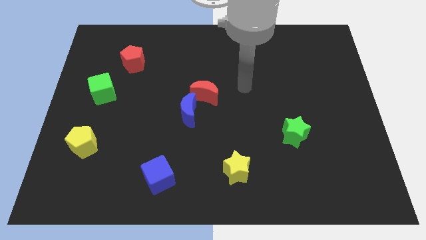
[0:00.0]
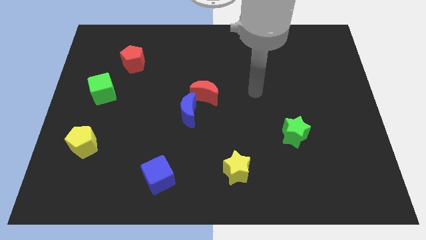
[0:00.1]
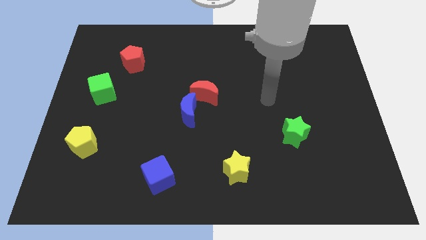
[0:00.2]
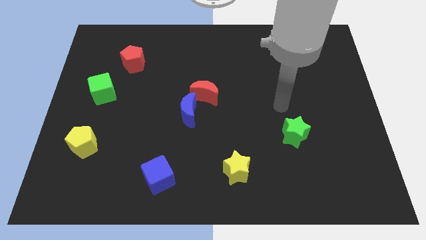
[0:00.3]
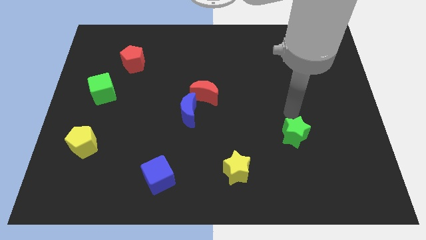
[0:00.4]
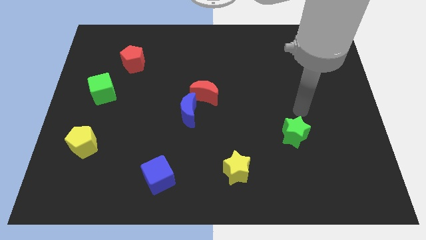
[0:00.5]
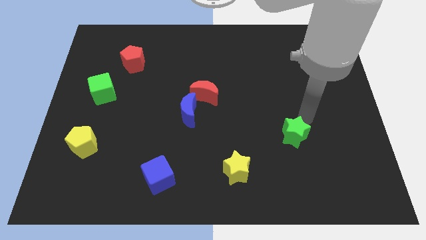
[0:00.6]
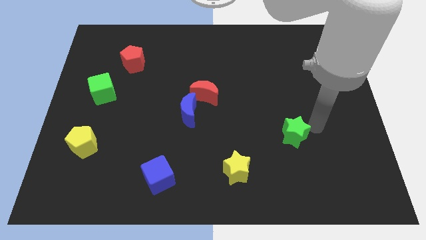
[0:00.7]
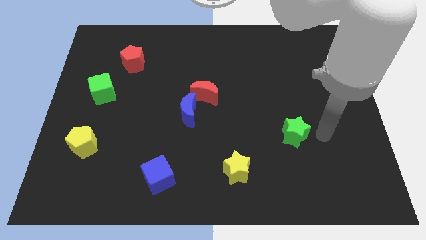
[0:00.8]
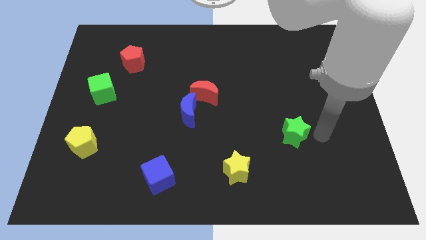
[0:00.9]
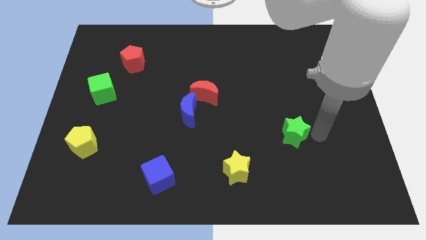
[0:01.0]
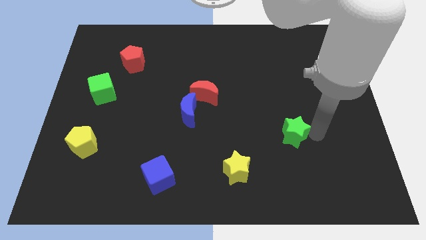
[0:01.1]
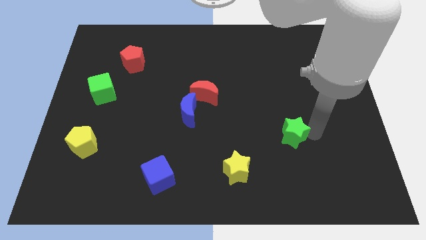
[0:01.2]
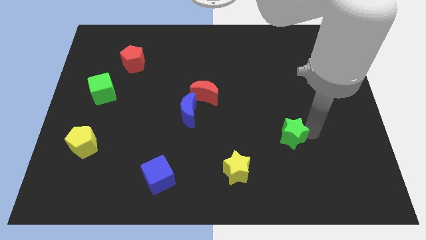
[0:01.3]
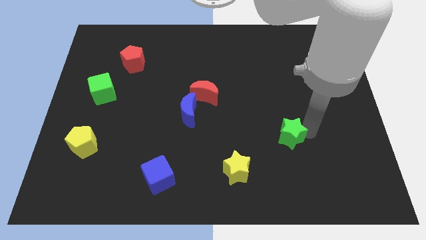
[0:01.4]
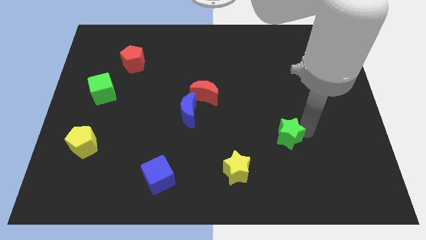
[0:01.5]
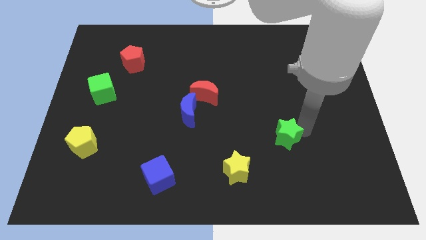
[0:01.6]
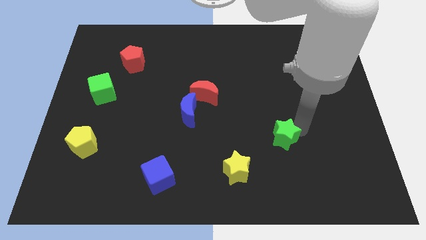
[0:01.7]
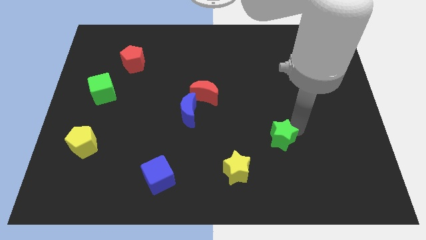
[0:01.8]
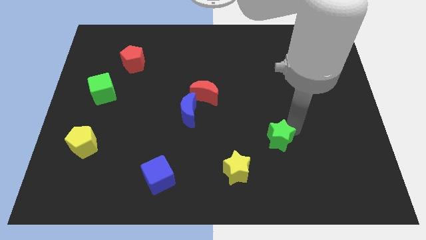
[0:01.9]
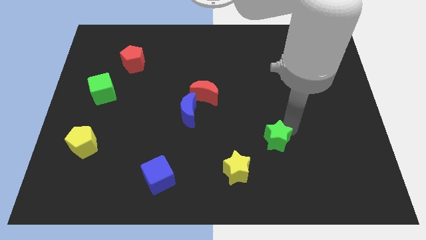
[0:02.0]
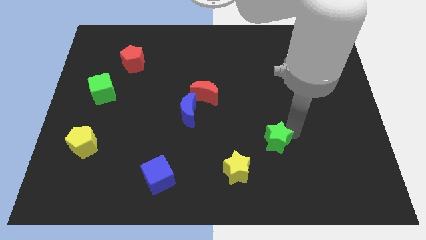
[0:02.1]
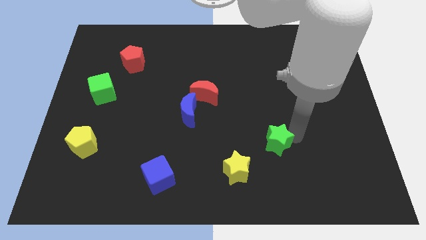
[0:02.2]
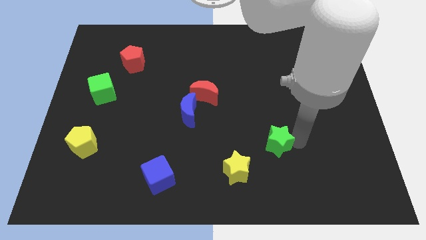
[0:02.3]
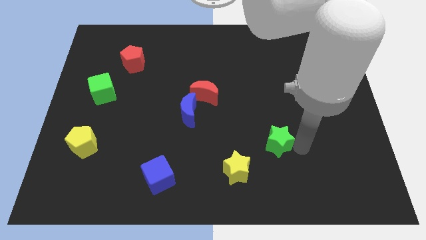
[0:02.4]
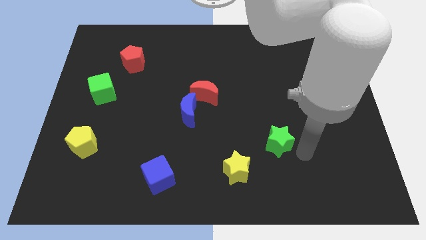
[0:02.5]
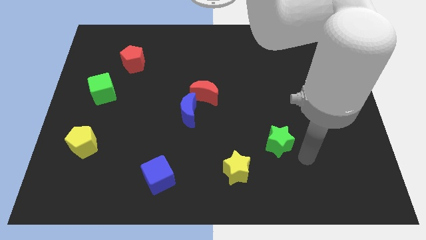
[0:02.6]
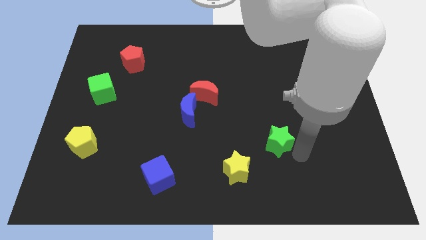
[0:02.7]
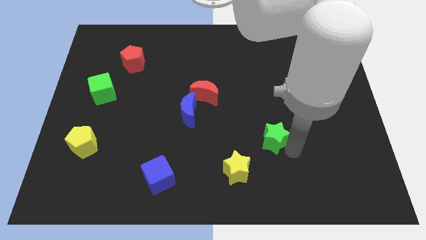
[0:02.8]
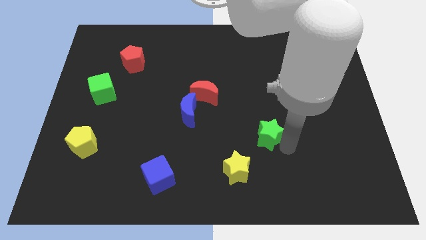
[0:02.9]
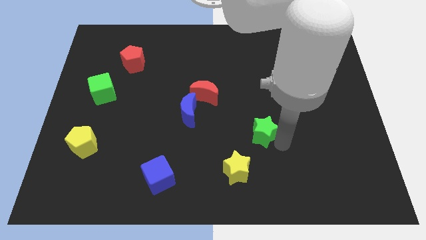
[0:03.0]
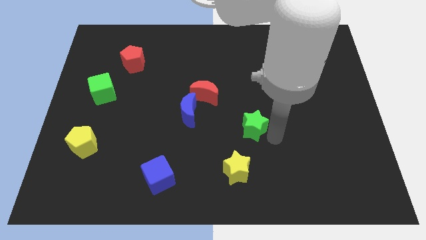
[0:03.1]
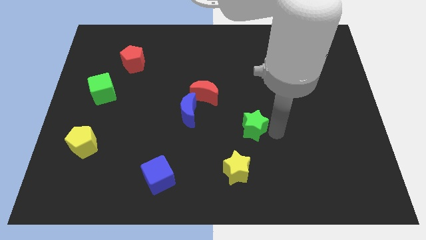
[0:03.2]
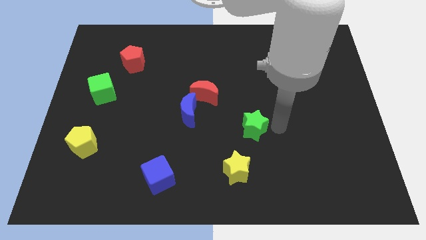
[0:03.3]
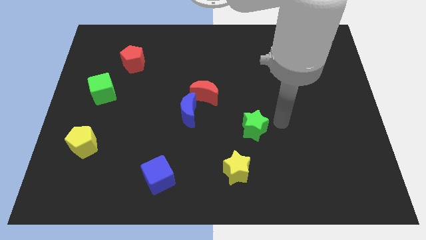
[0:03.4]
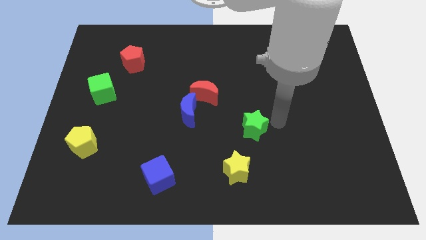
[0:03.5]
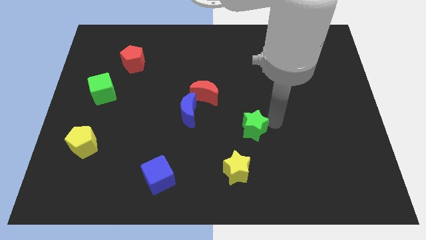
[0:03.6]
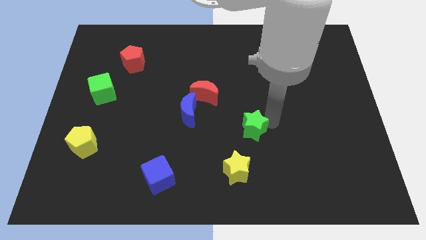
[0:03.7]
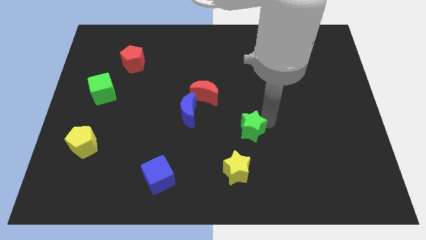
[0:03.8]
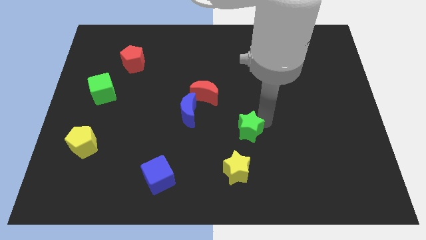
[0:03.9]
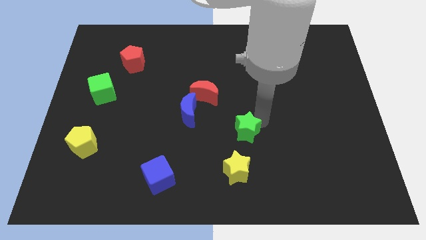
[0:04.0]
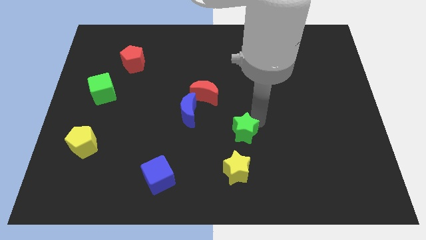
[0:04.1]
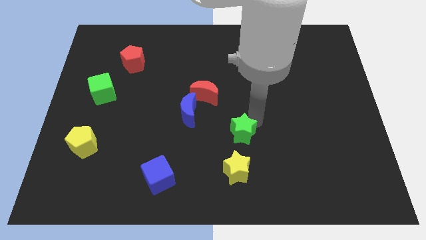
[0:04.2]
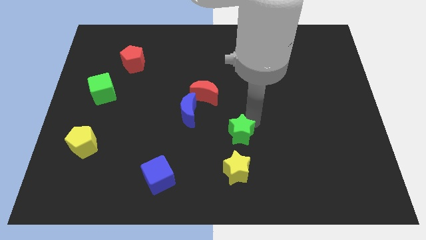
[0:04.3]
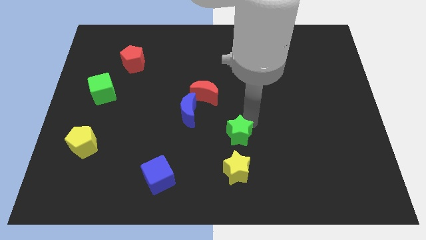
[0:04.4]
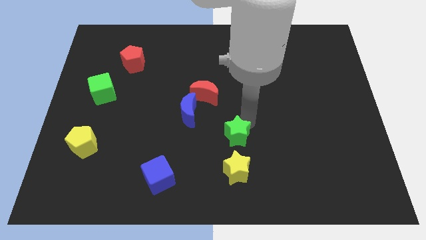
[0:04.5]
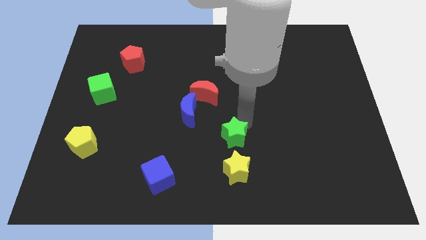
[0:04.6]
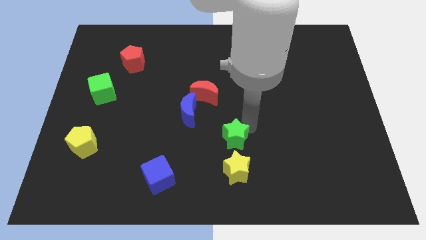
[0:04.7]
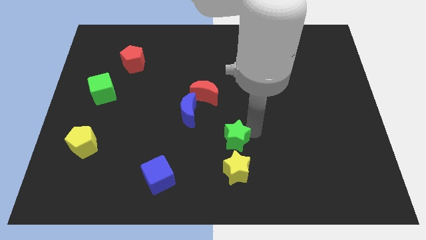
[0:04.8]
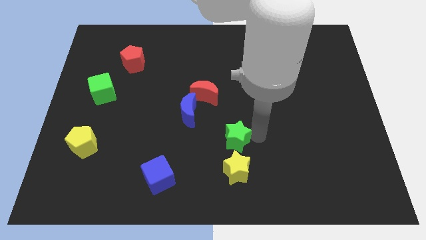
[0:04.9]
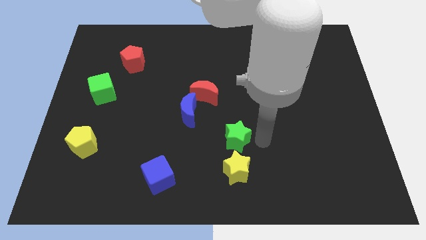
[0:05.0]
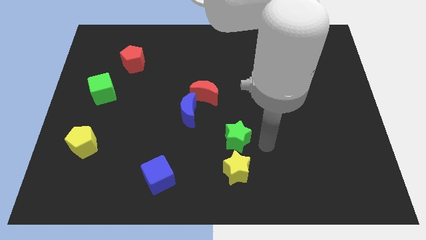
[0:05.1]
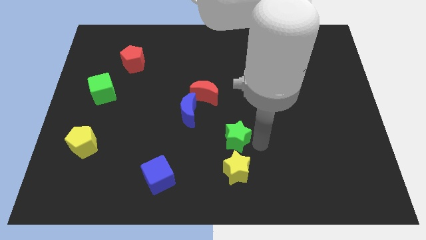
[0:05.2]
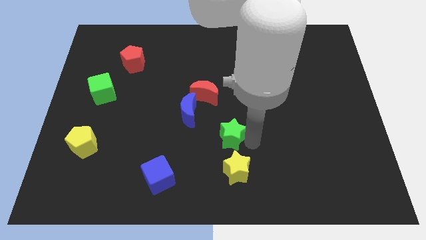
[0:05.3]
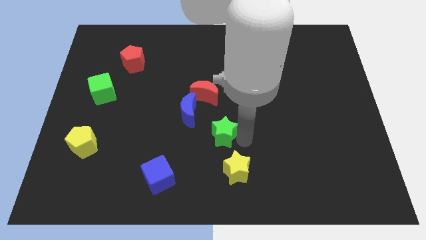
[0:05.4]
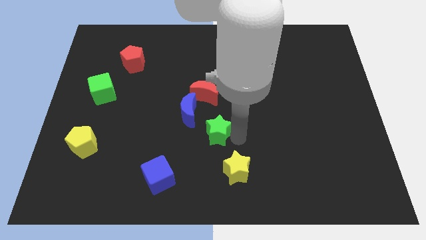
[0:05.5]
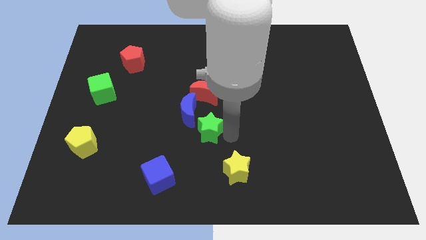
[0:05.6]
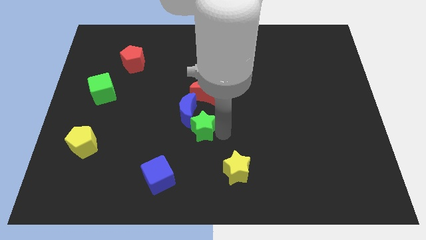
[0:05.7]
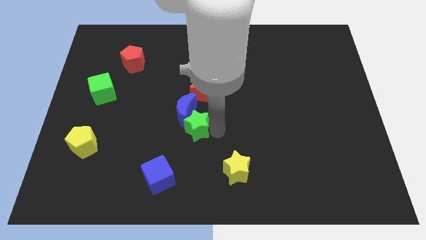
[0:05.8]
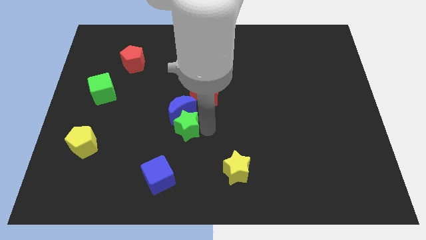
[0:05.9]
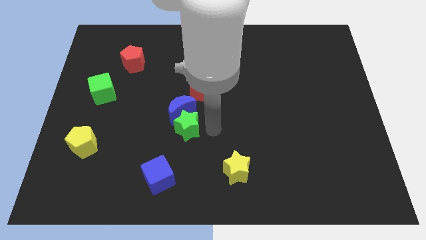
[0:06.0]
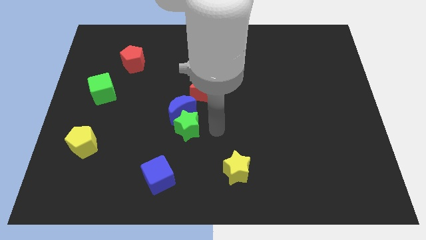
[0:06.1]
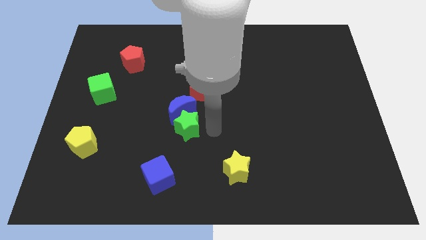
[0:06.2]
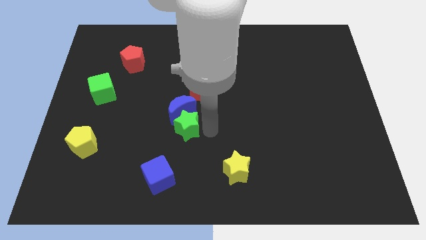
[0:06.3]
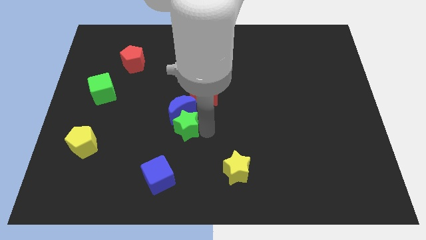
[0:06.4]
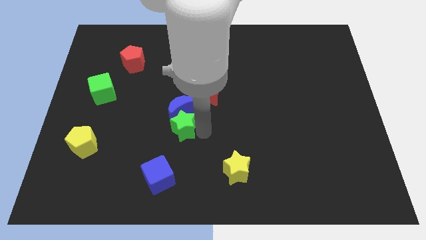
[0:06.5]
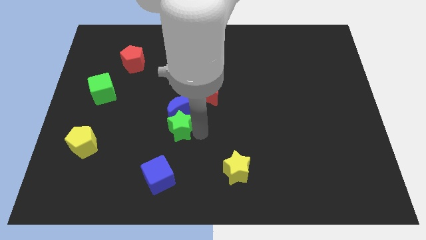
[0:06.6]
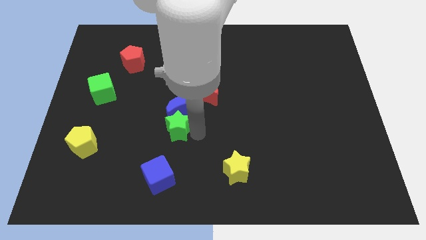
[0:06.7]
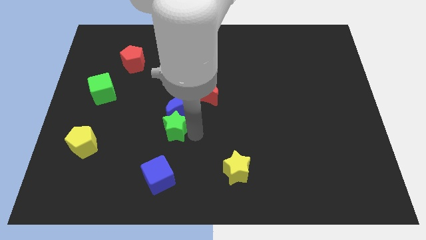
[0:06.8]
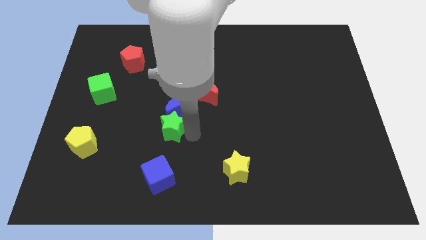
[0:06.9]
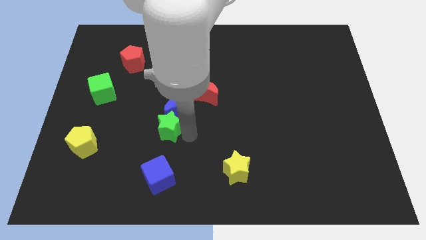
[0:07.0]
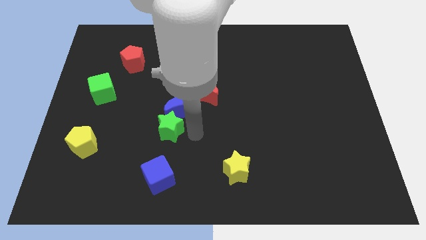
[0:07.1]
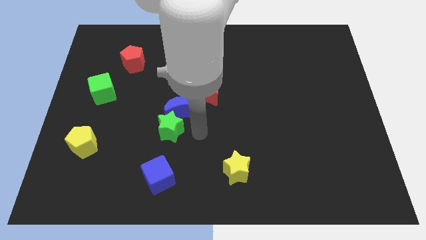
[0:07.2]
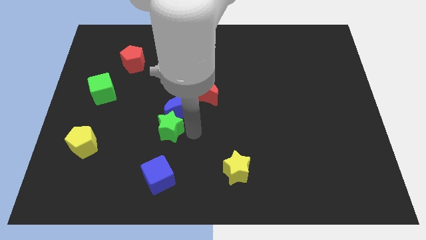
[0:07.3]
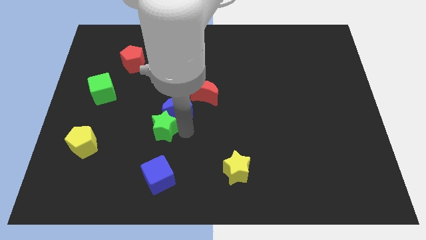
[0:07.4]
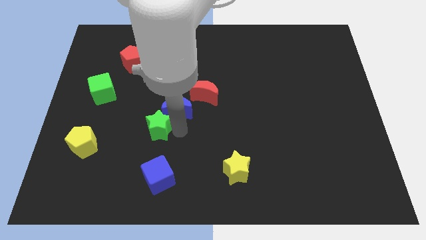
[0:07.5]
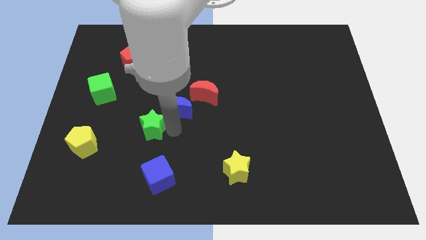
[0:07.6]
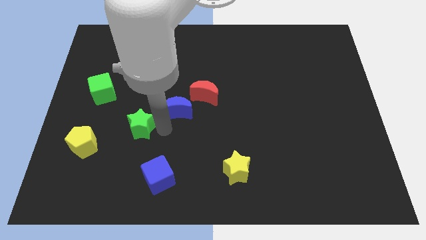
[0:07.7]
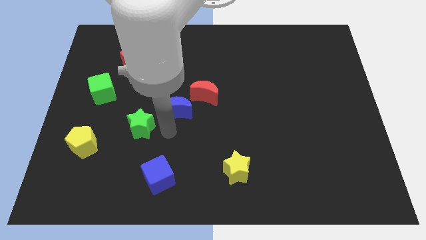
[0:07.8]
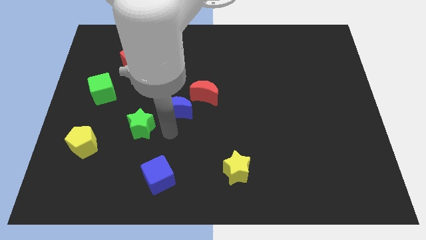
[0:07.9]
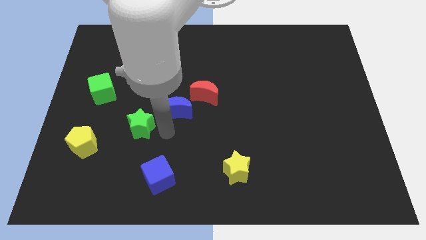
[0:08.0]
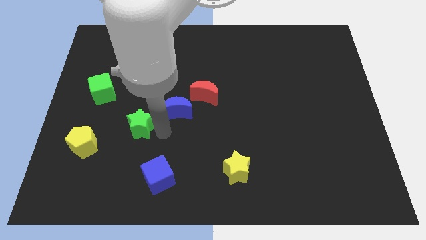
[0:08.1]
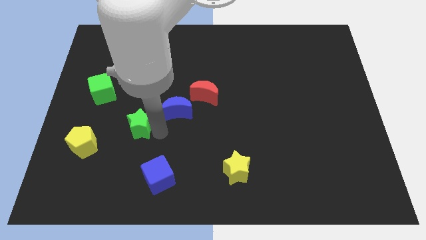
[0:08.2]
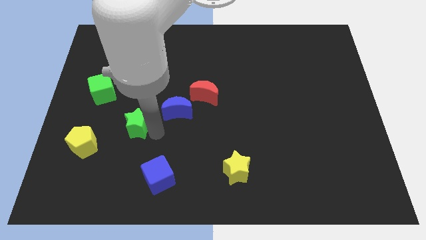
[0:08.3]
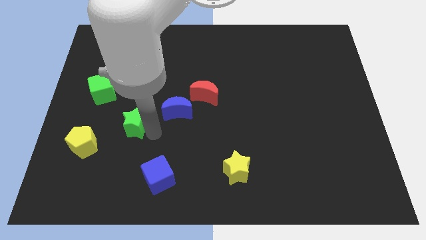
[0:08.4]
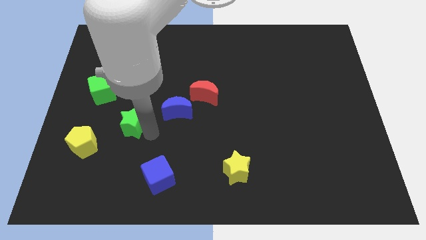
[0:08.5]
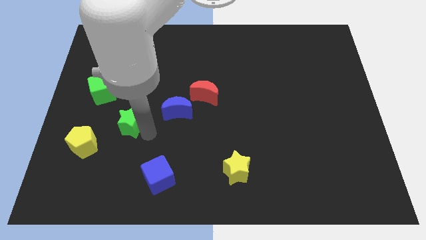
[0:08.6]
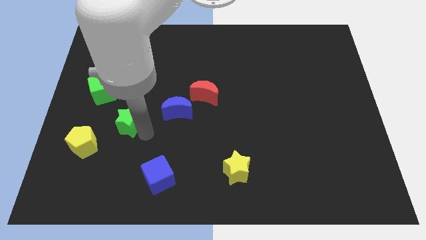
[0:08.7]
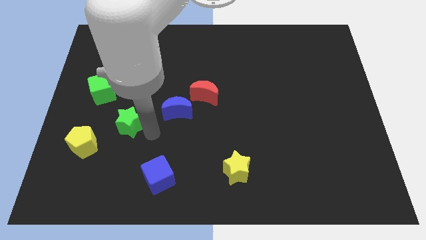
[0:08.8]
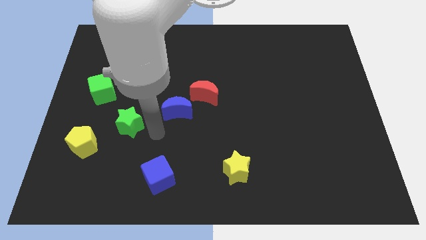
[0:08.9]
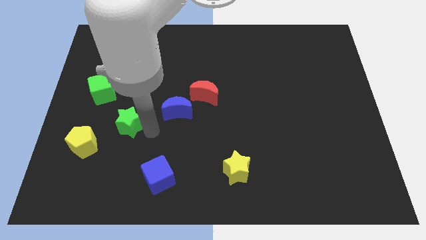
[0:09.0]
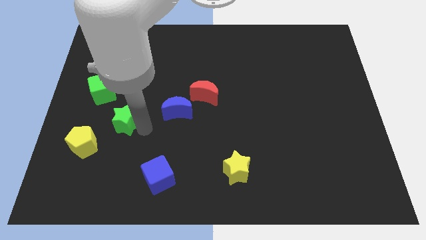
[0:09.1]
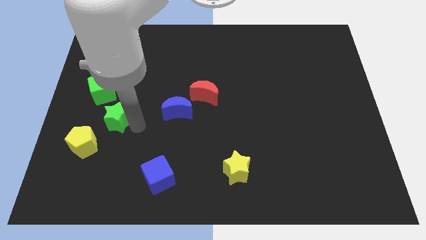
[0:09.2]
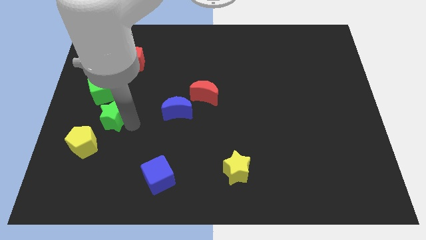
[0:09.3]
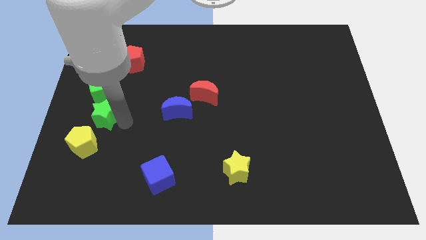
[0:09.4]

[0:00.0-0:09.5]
push the green star to the top side of the yellow pentagon
